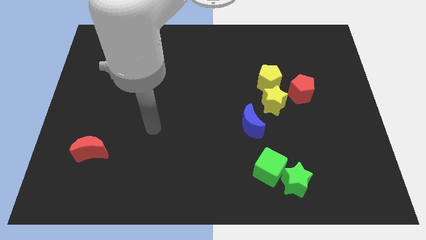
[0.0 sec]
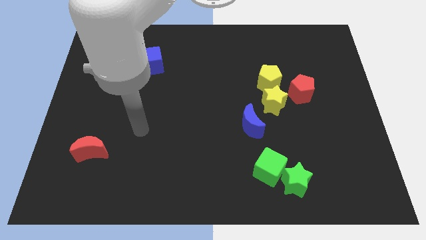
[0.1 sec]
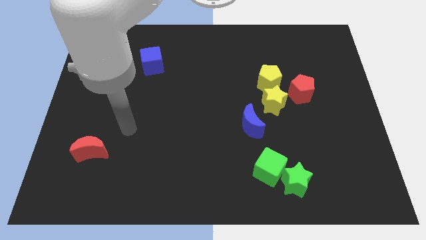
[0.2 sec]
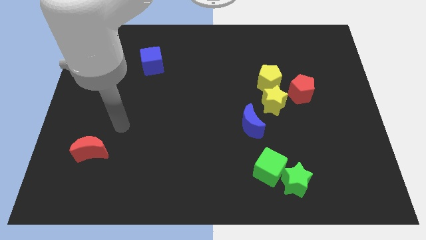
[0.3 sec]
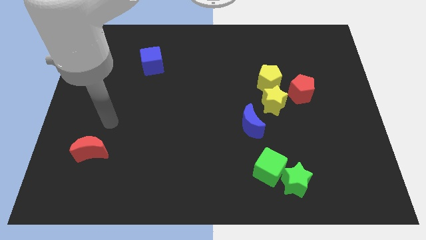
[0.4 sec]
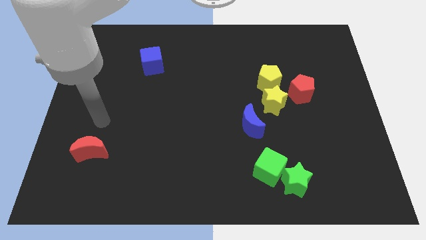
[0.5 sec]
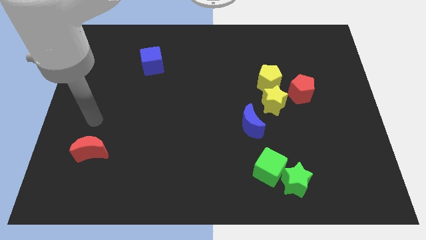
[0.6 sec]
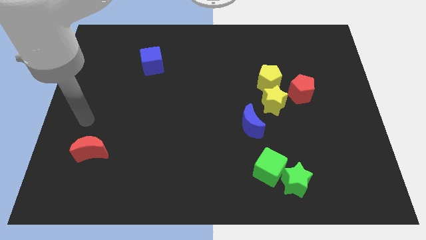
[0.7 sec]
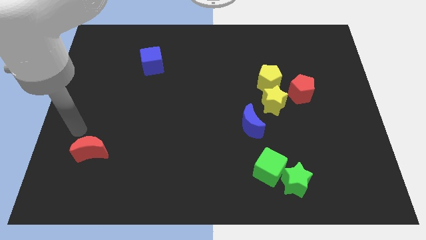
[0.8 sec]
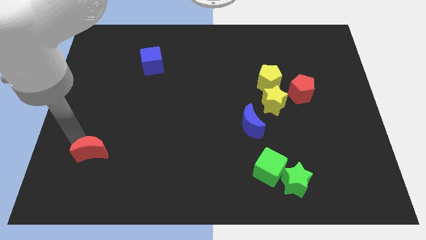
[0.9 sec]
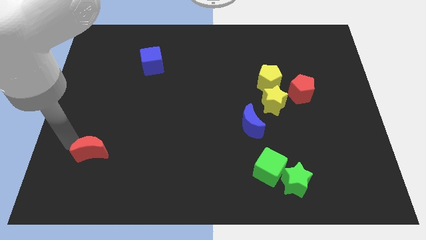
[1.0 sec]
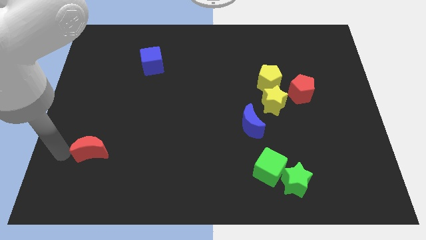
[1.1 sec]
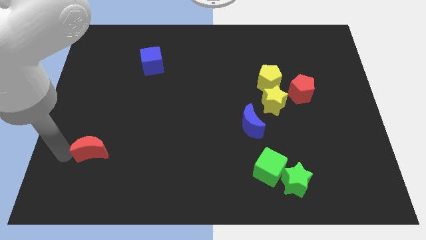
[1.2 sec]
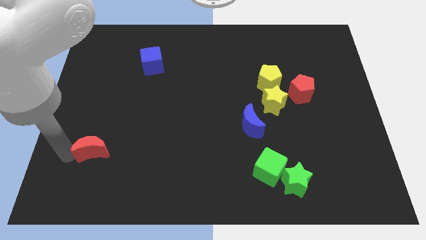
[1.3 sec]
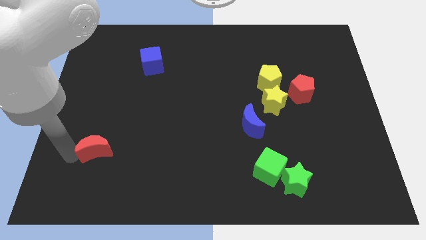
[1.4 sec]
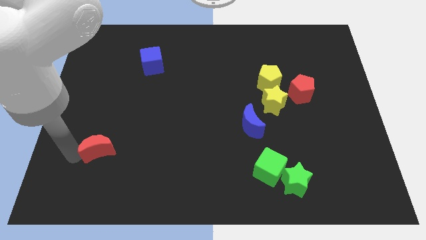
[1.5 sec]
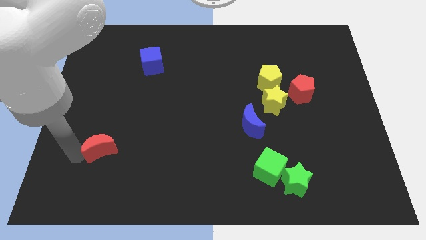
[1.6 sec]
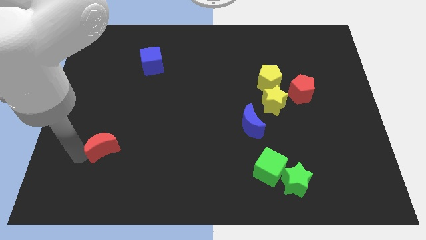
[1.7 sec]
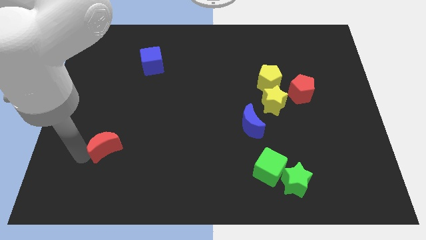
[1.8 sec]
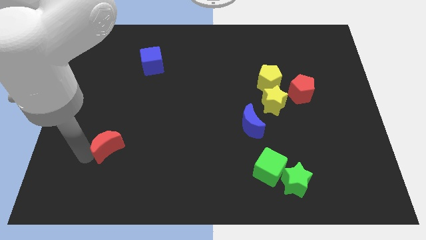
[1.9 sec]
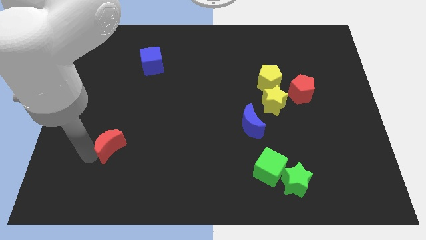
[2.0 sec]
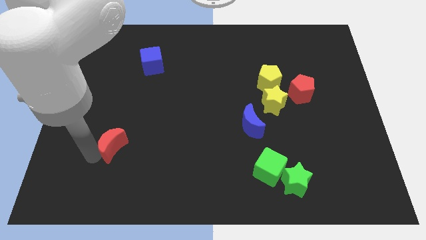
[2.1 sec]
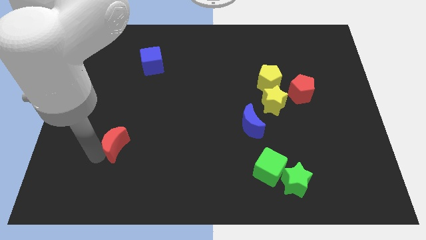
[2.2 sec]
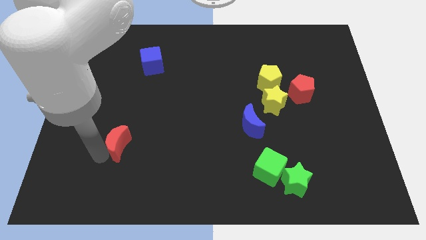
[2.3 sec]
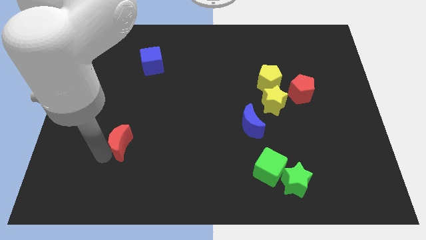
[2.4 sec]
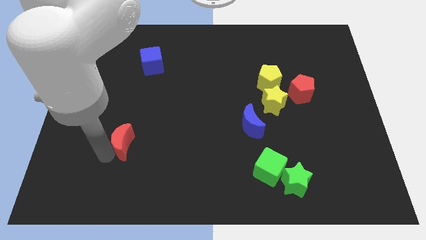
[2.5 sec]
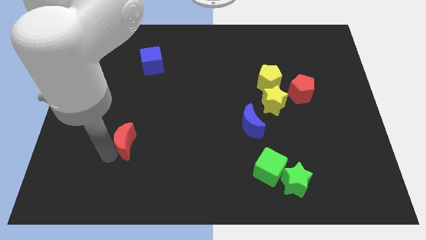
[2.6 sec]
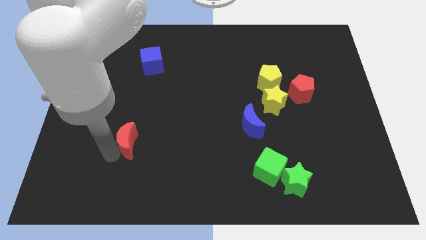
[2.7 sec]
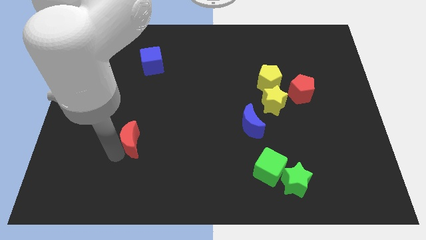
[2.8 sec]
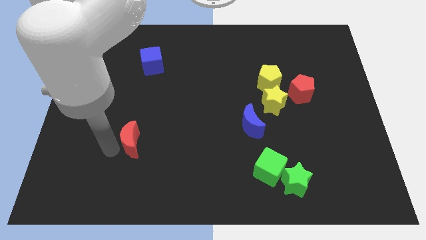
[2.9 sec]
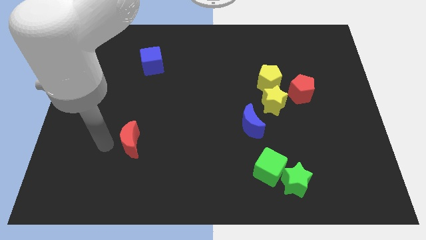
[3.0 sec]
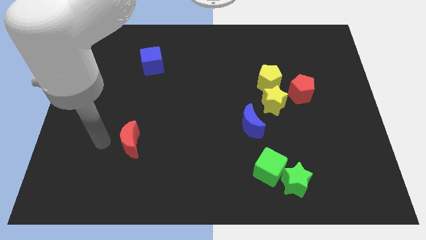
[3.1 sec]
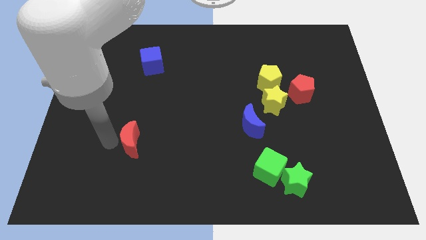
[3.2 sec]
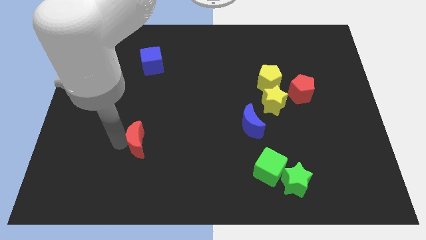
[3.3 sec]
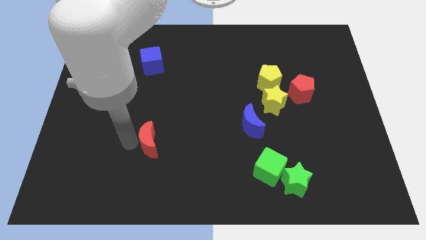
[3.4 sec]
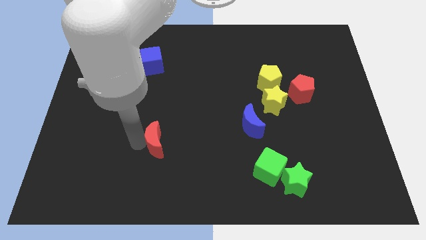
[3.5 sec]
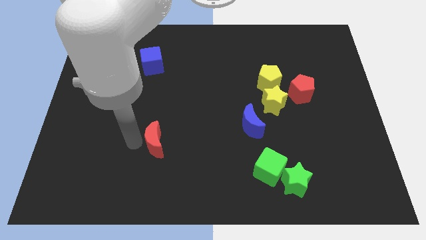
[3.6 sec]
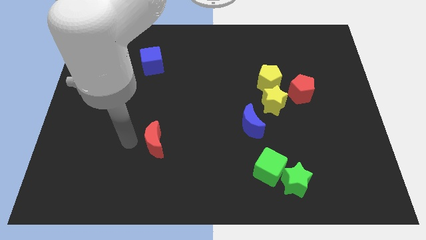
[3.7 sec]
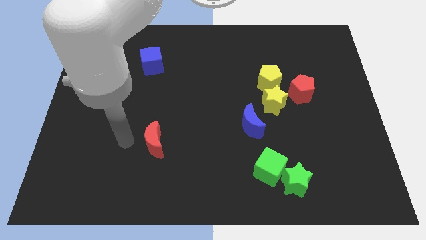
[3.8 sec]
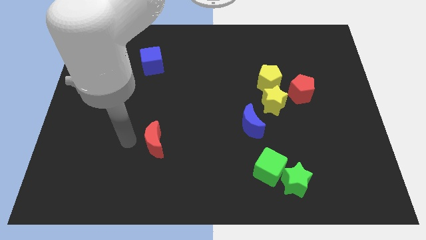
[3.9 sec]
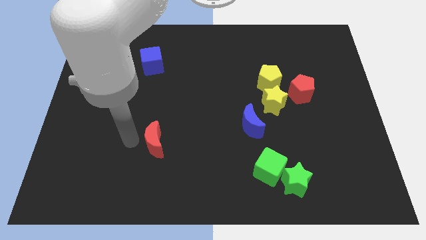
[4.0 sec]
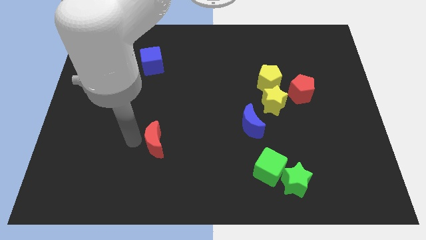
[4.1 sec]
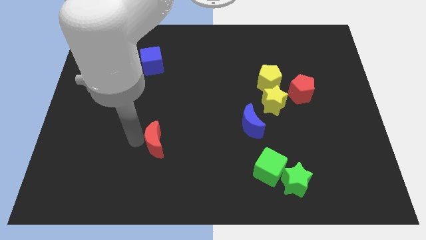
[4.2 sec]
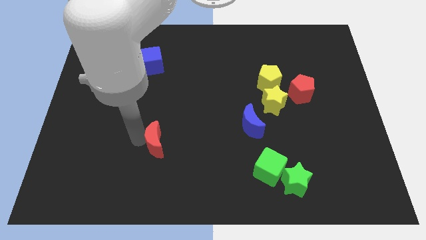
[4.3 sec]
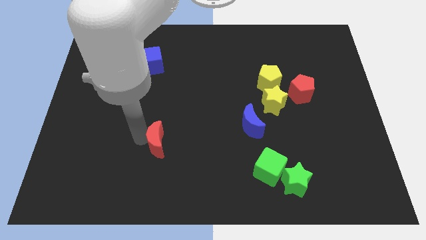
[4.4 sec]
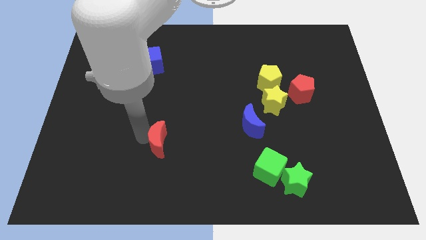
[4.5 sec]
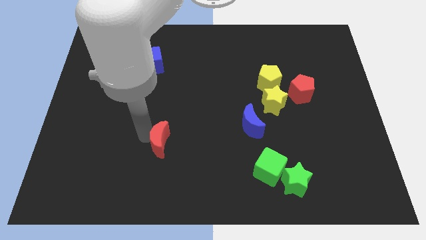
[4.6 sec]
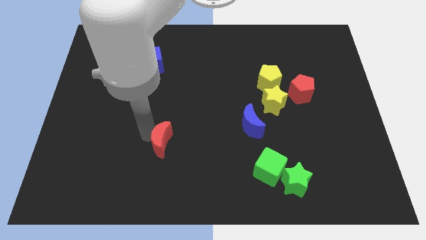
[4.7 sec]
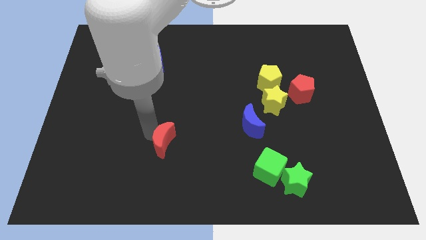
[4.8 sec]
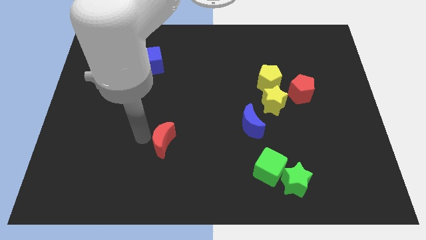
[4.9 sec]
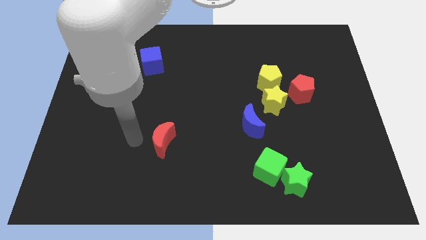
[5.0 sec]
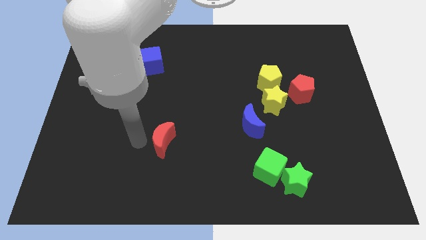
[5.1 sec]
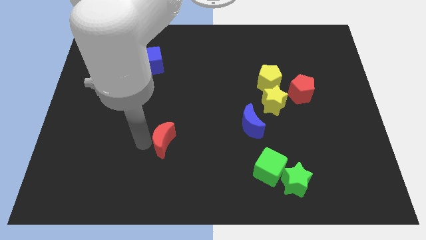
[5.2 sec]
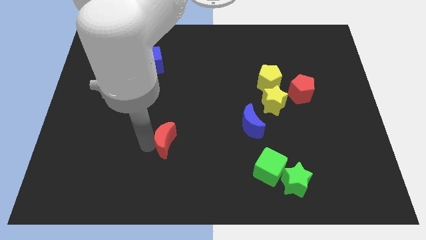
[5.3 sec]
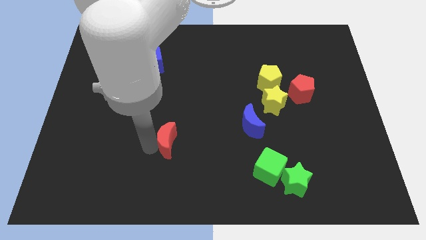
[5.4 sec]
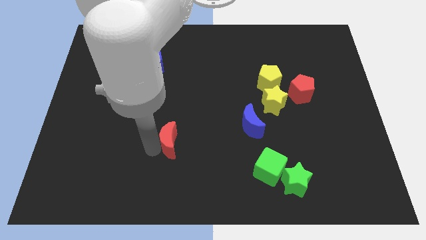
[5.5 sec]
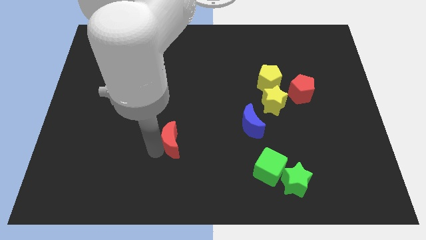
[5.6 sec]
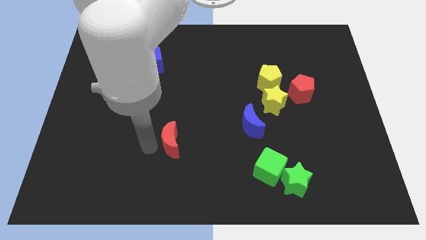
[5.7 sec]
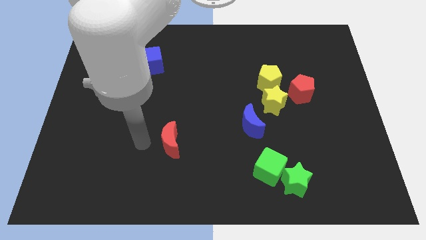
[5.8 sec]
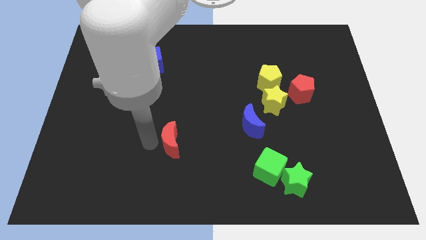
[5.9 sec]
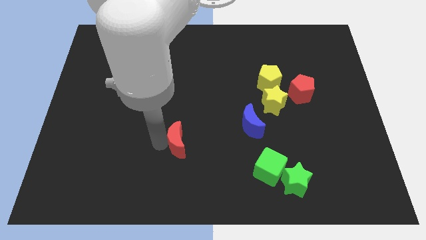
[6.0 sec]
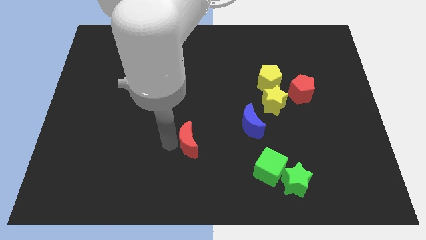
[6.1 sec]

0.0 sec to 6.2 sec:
push the red moon right

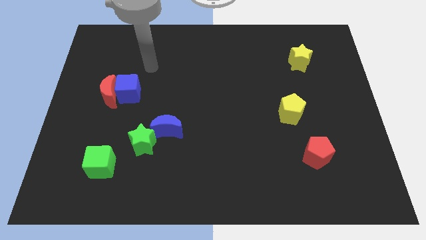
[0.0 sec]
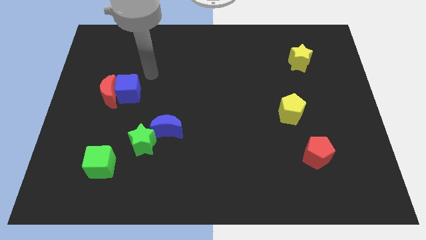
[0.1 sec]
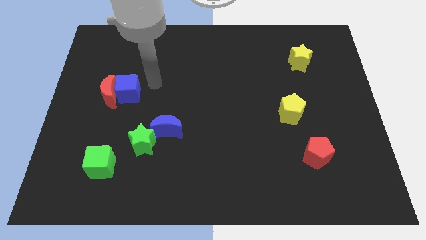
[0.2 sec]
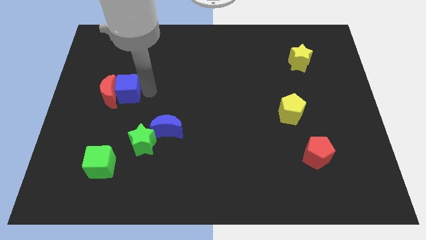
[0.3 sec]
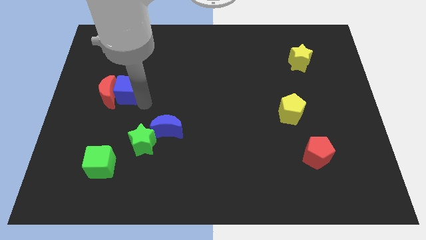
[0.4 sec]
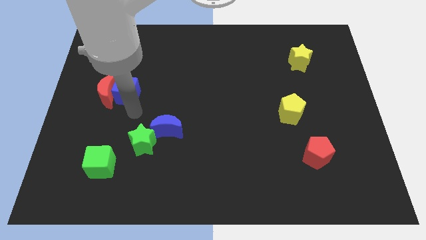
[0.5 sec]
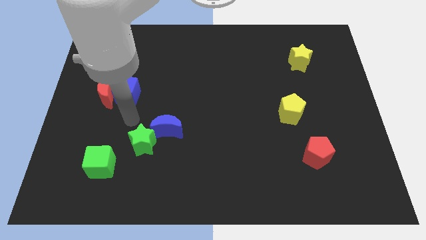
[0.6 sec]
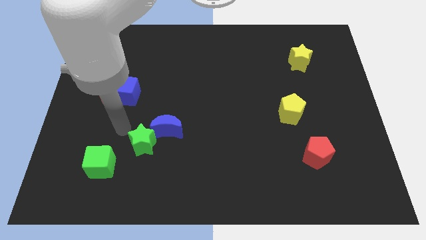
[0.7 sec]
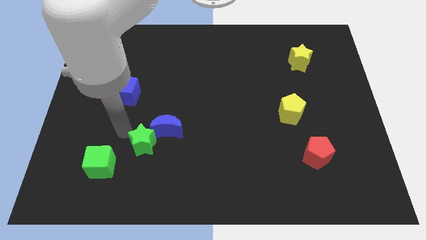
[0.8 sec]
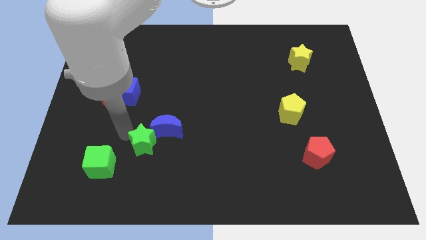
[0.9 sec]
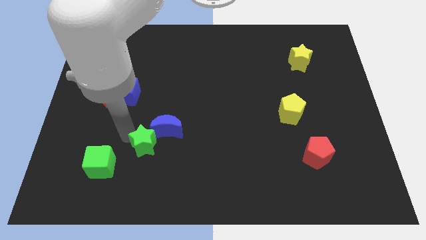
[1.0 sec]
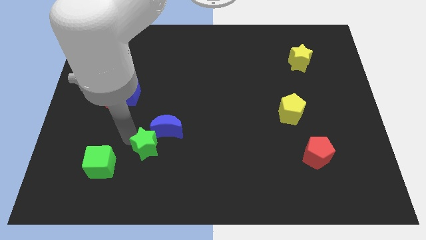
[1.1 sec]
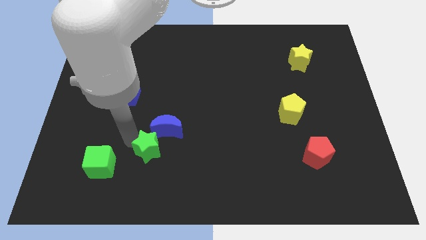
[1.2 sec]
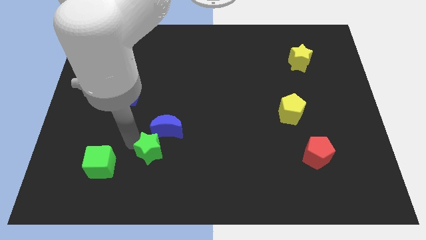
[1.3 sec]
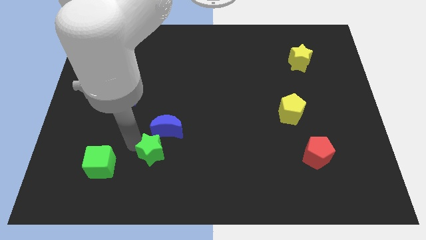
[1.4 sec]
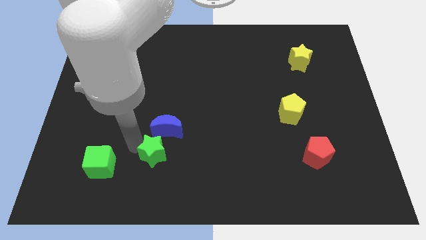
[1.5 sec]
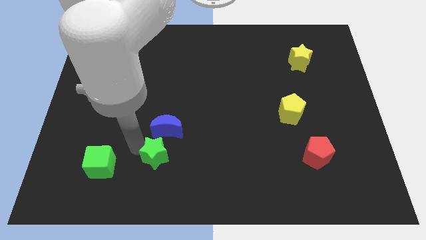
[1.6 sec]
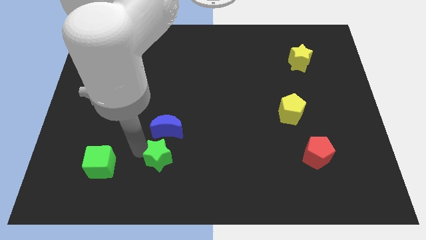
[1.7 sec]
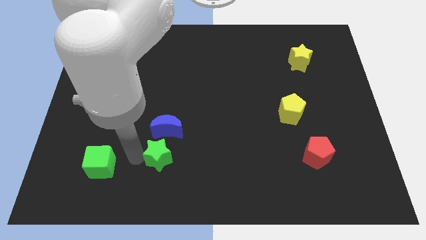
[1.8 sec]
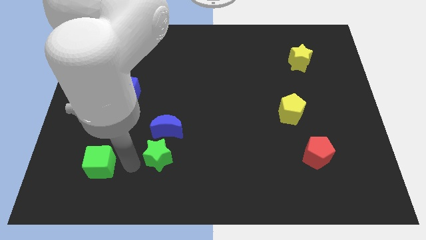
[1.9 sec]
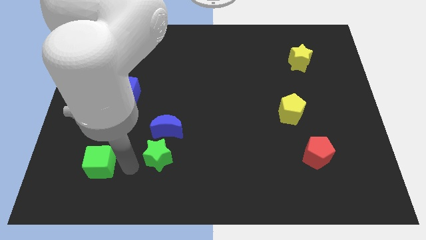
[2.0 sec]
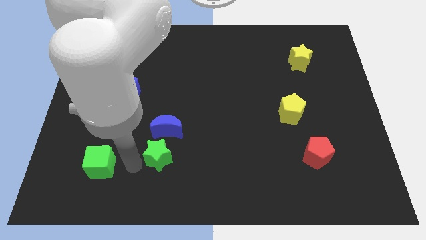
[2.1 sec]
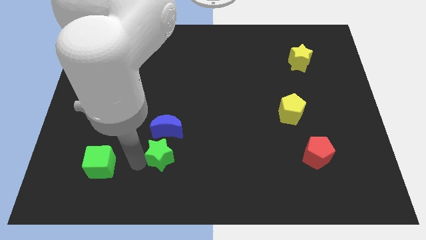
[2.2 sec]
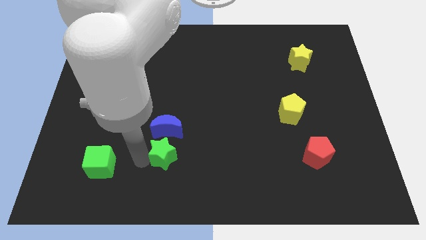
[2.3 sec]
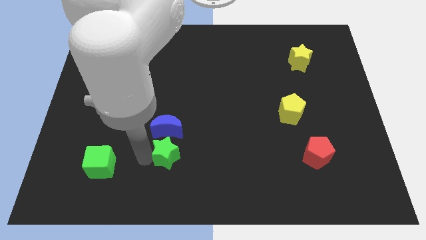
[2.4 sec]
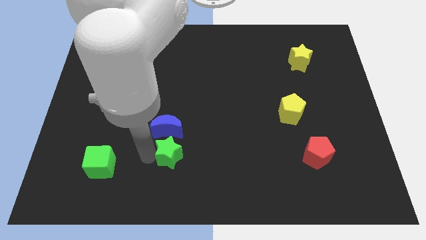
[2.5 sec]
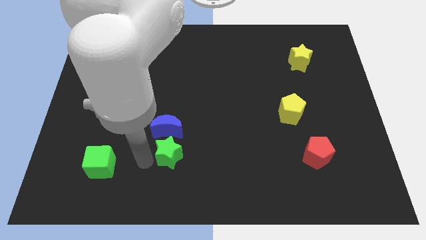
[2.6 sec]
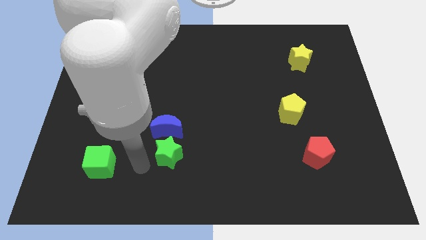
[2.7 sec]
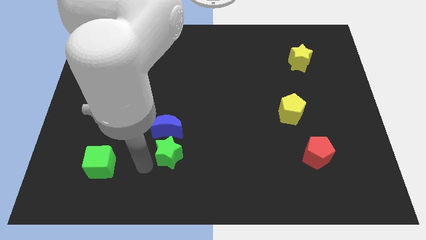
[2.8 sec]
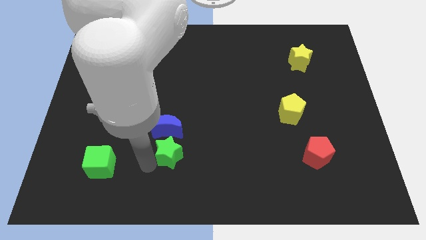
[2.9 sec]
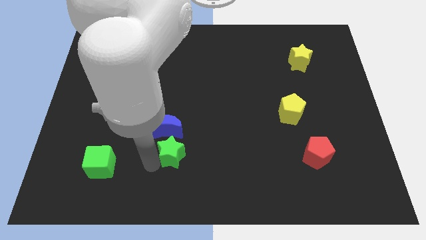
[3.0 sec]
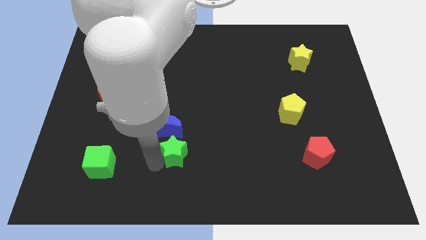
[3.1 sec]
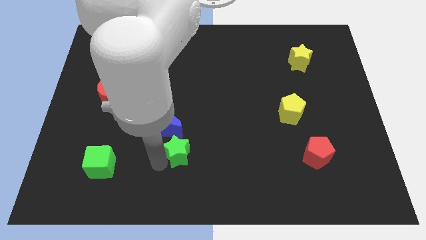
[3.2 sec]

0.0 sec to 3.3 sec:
push the green star to the right somewhat
